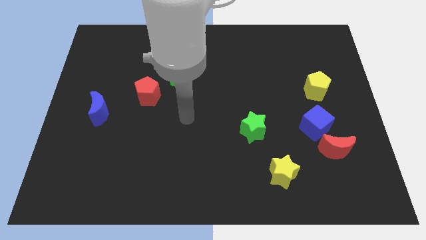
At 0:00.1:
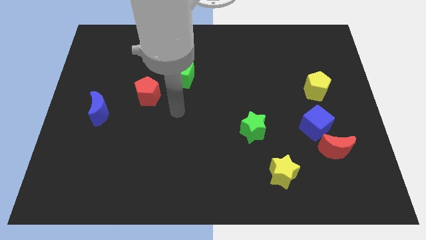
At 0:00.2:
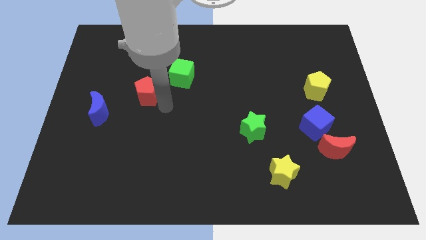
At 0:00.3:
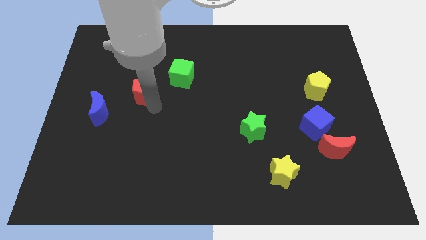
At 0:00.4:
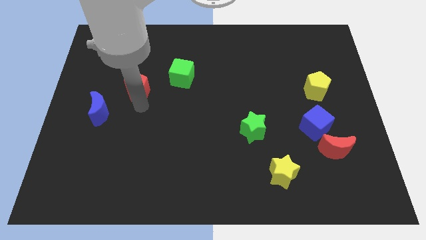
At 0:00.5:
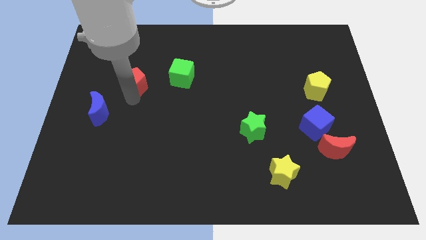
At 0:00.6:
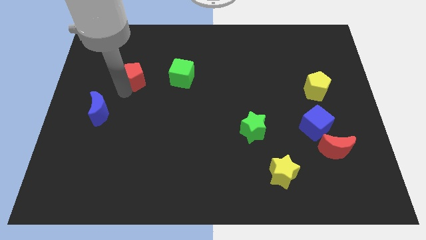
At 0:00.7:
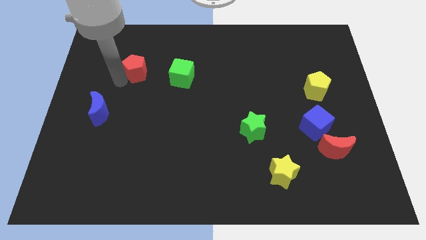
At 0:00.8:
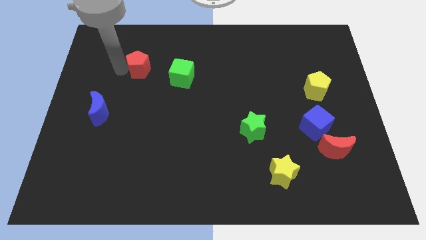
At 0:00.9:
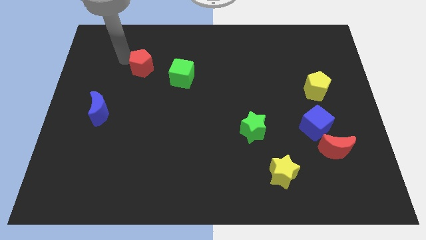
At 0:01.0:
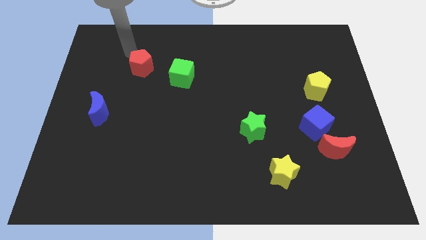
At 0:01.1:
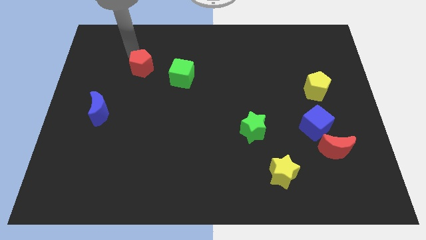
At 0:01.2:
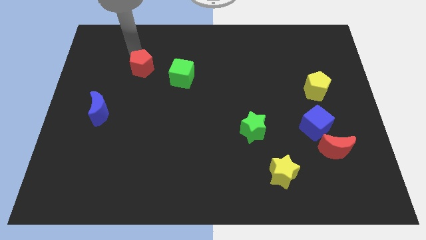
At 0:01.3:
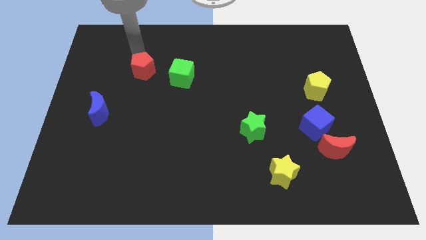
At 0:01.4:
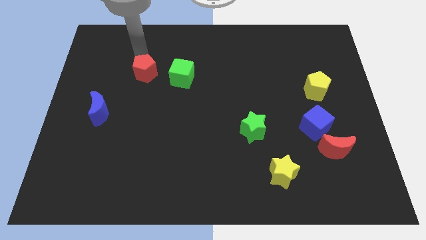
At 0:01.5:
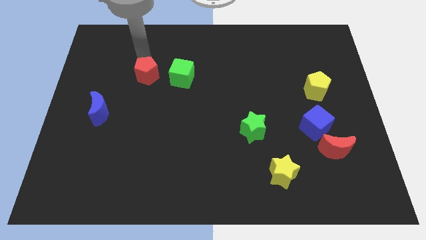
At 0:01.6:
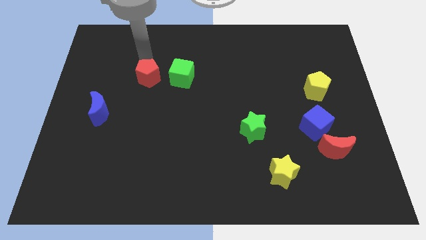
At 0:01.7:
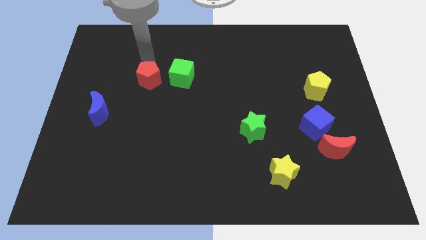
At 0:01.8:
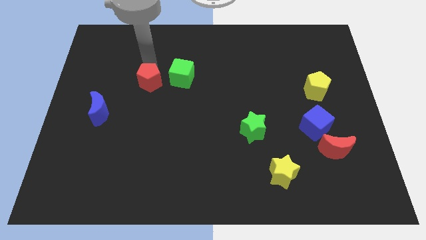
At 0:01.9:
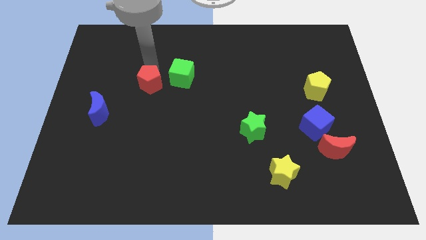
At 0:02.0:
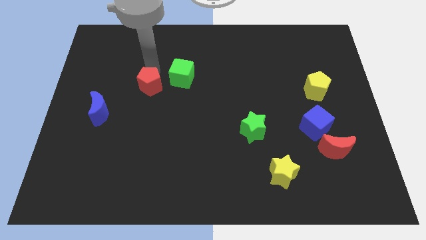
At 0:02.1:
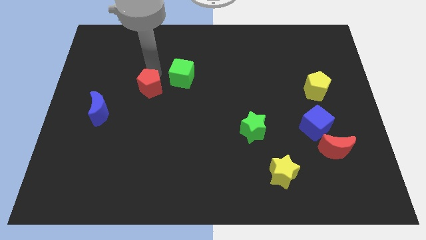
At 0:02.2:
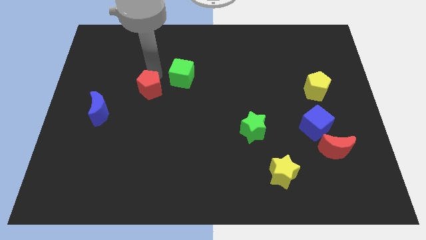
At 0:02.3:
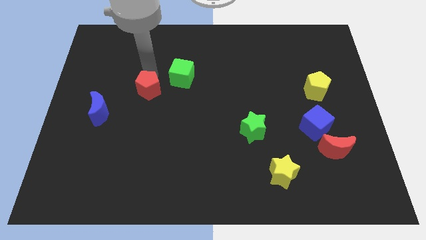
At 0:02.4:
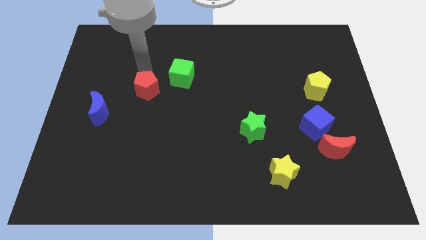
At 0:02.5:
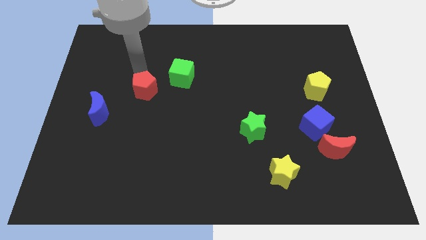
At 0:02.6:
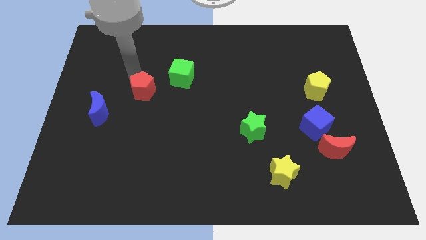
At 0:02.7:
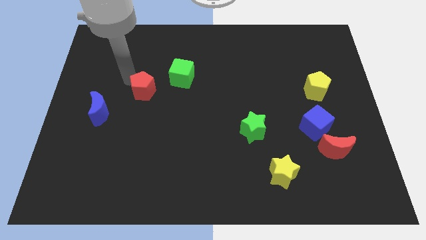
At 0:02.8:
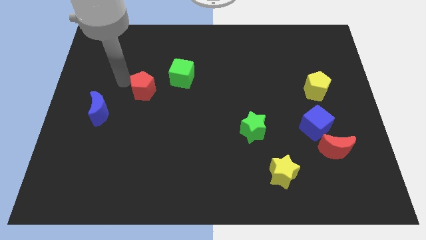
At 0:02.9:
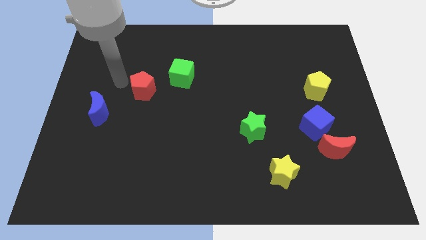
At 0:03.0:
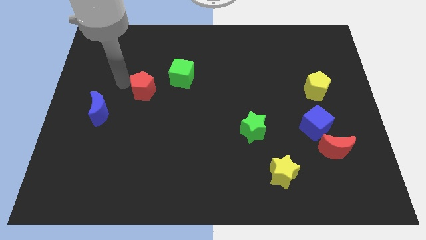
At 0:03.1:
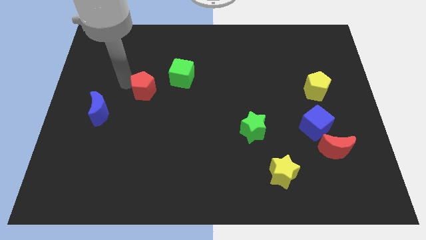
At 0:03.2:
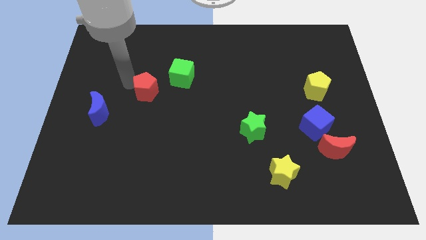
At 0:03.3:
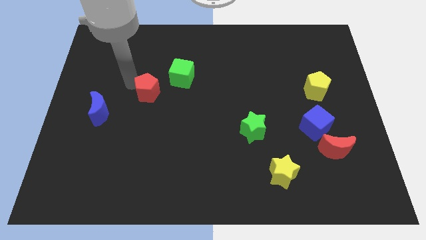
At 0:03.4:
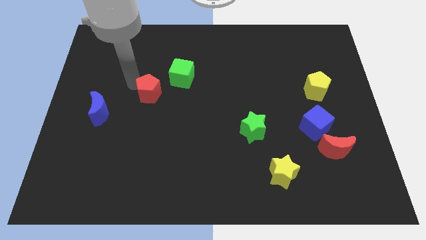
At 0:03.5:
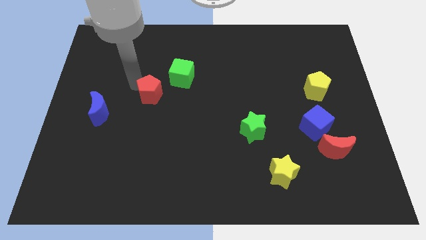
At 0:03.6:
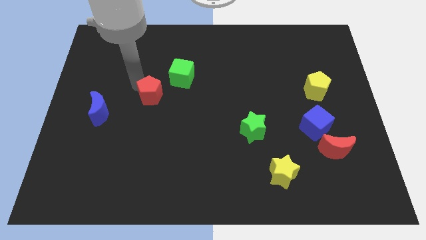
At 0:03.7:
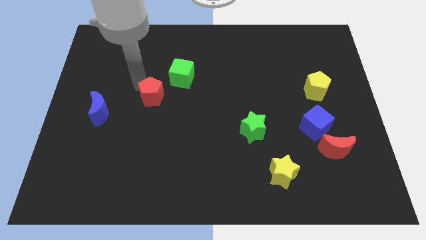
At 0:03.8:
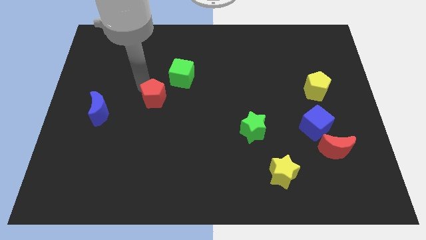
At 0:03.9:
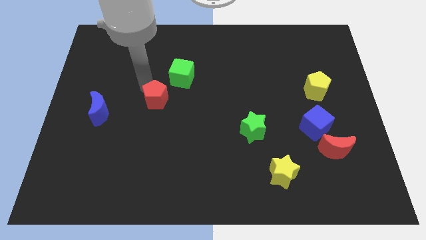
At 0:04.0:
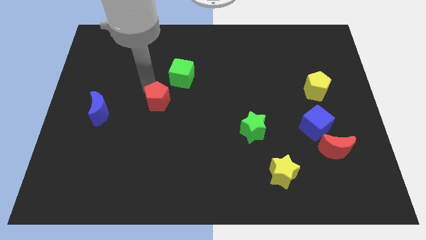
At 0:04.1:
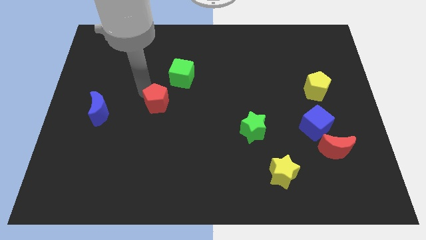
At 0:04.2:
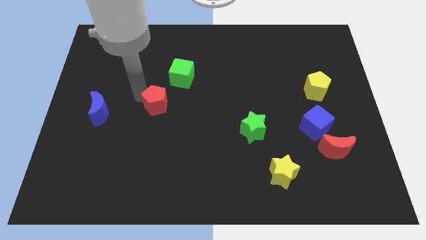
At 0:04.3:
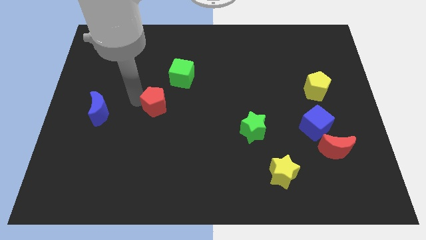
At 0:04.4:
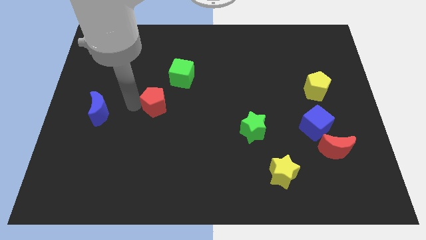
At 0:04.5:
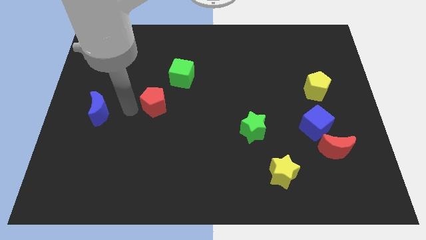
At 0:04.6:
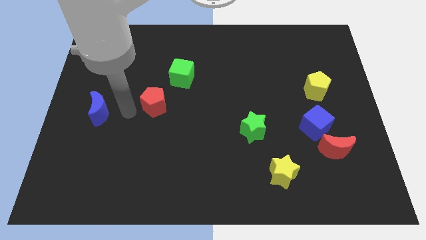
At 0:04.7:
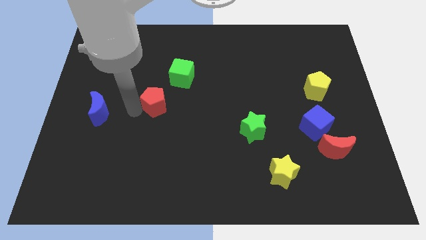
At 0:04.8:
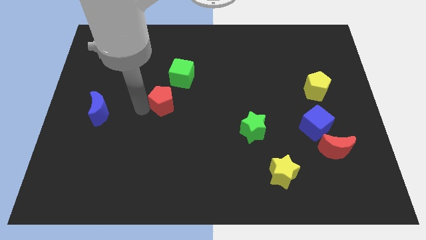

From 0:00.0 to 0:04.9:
put the red pentagon to the middle of the board

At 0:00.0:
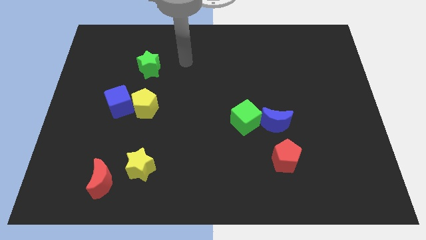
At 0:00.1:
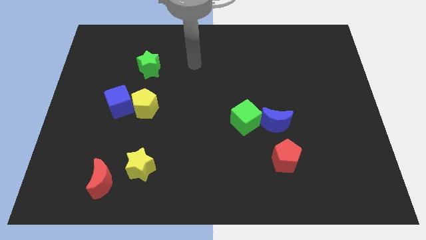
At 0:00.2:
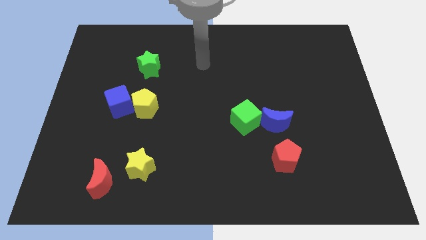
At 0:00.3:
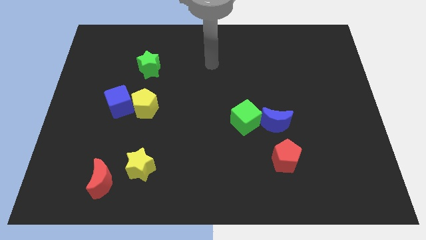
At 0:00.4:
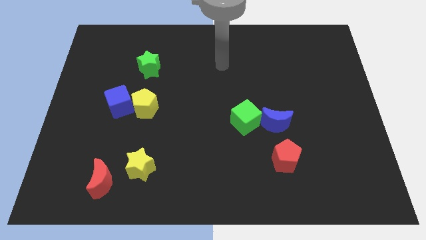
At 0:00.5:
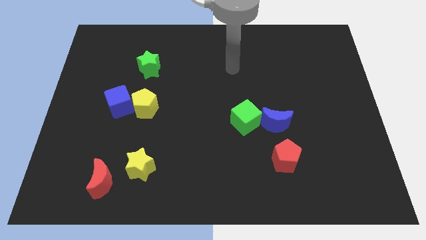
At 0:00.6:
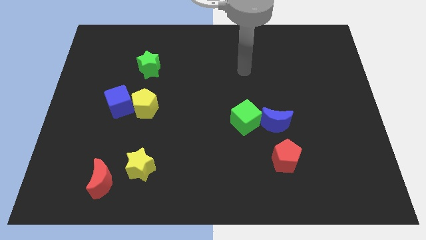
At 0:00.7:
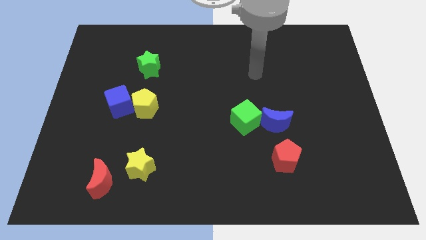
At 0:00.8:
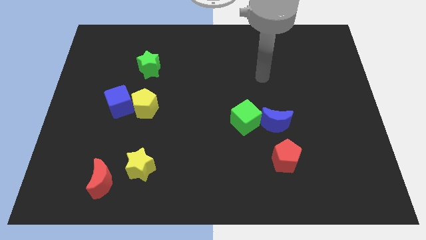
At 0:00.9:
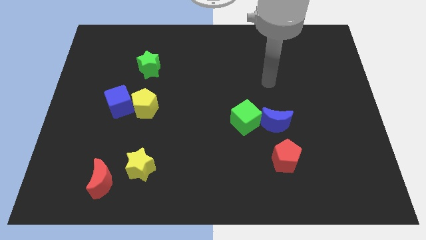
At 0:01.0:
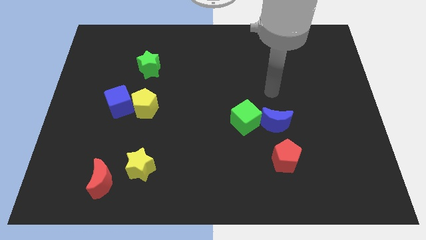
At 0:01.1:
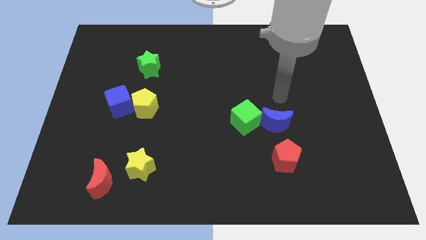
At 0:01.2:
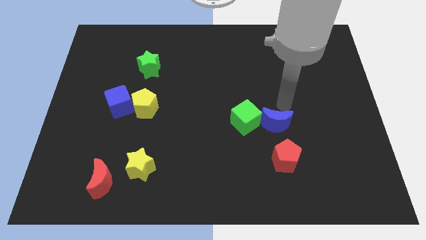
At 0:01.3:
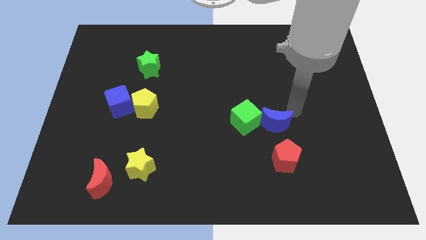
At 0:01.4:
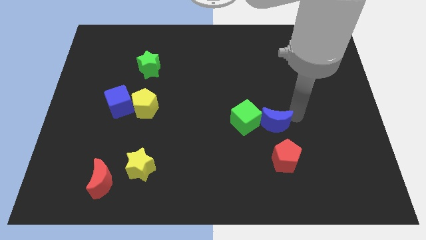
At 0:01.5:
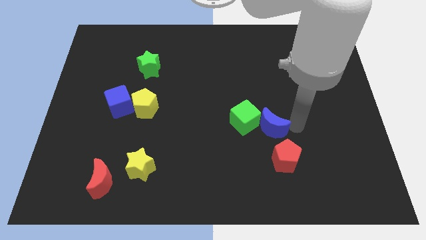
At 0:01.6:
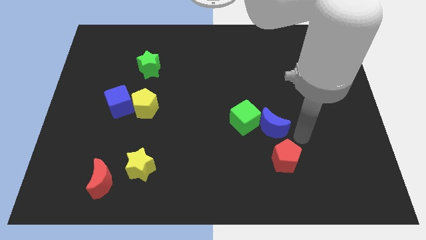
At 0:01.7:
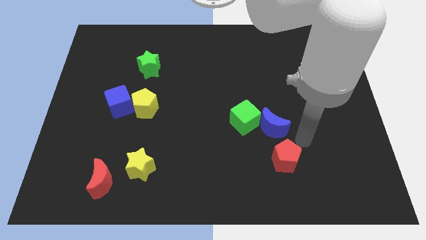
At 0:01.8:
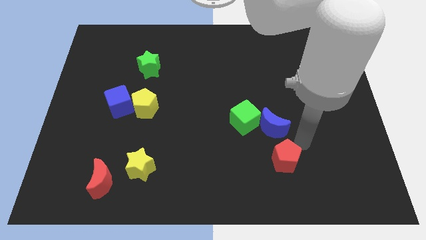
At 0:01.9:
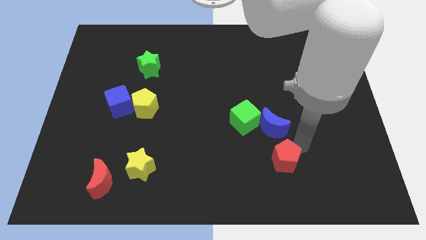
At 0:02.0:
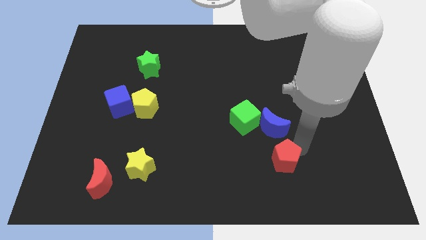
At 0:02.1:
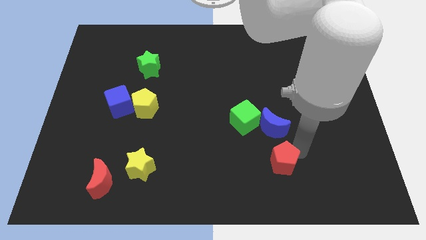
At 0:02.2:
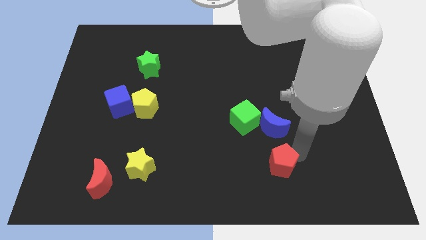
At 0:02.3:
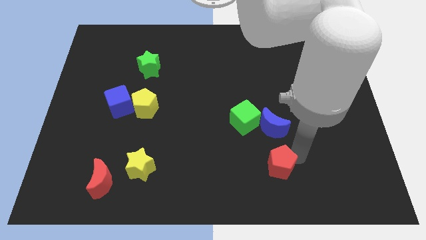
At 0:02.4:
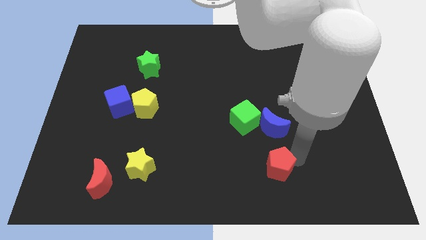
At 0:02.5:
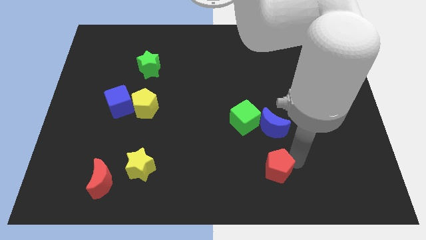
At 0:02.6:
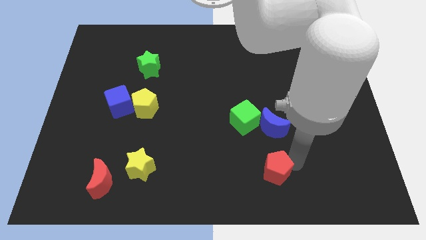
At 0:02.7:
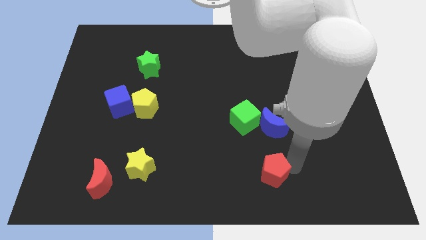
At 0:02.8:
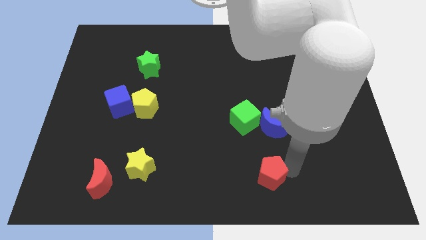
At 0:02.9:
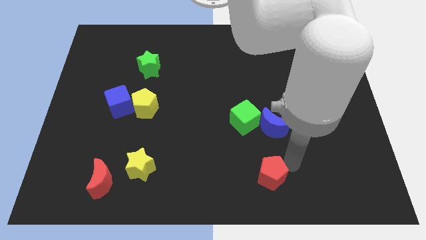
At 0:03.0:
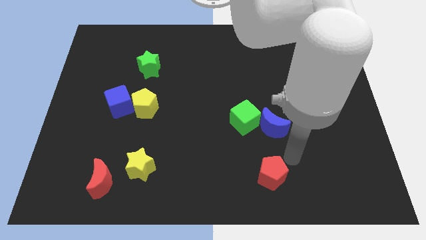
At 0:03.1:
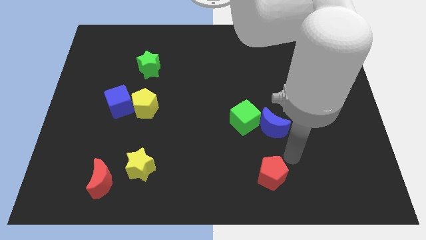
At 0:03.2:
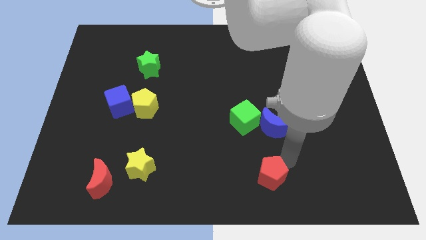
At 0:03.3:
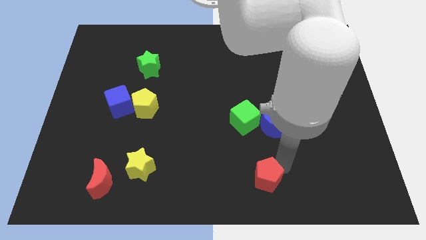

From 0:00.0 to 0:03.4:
push the red pentagon to the bottom side
